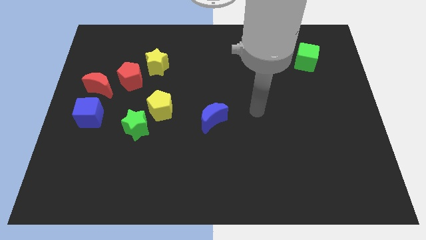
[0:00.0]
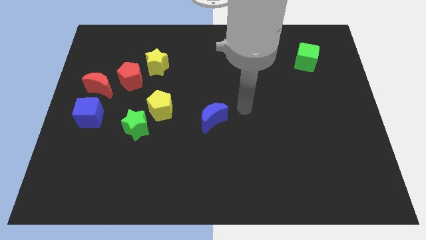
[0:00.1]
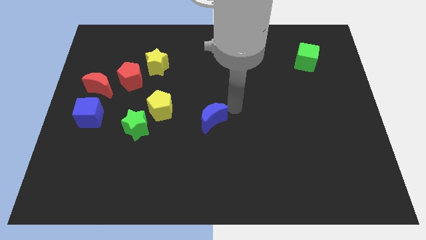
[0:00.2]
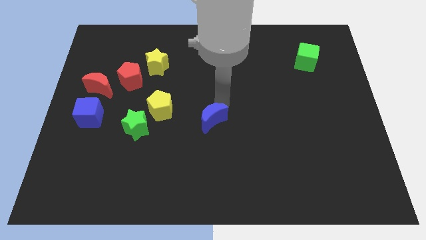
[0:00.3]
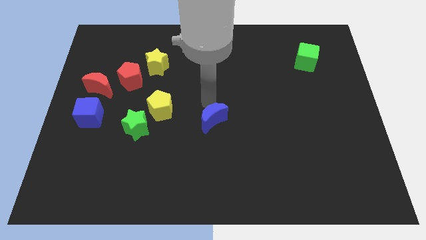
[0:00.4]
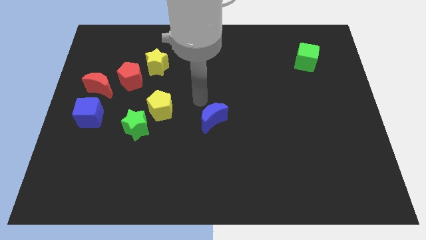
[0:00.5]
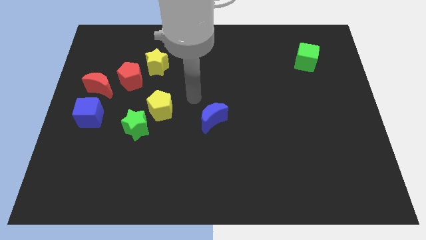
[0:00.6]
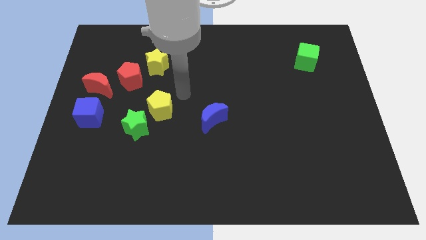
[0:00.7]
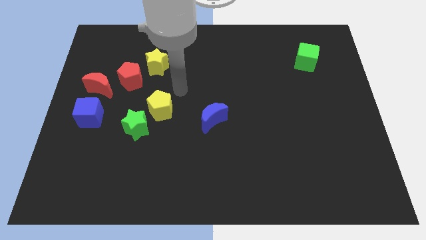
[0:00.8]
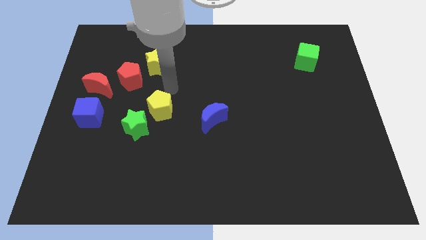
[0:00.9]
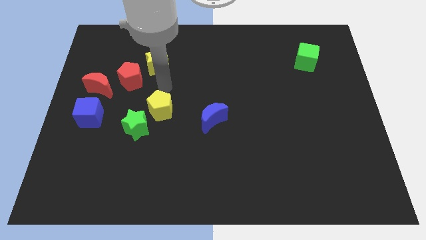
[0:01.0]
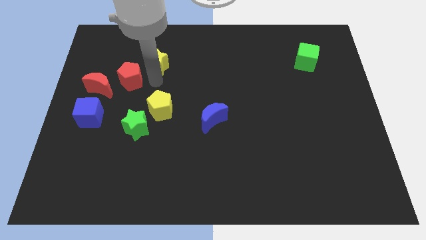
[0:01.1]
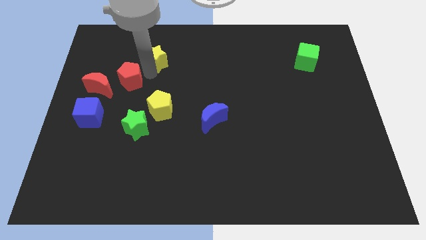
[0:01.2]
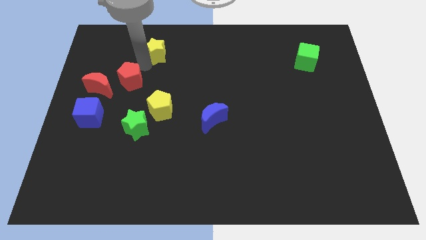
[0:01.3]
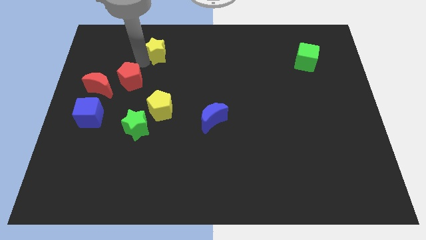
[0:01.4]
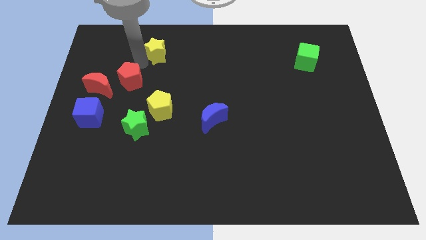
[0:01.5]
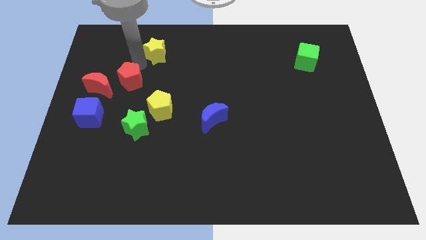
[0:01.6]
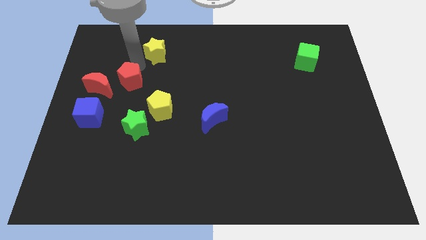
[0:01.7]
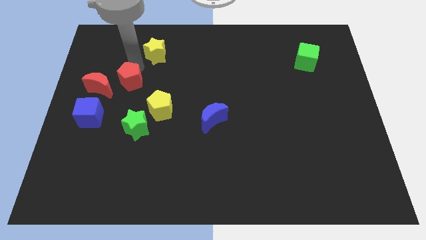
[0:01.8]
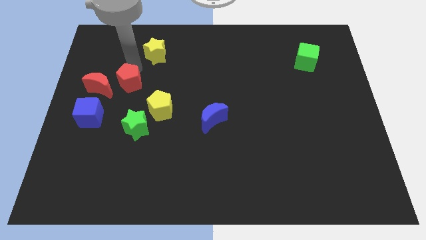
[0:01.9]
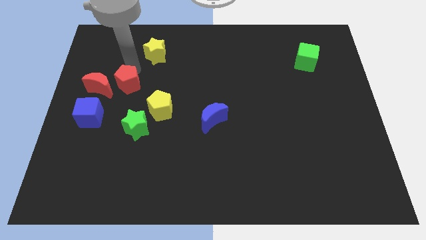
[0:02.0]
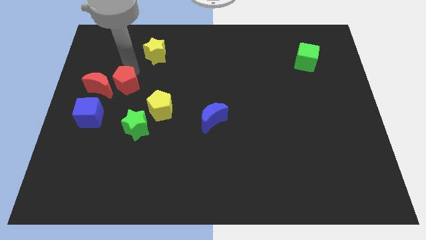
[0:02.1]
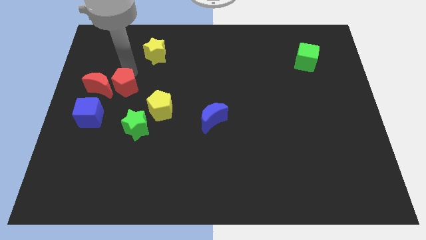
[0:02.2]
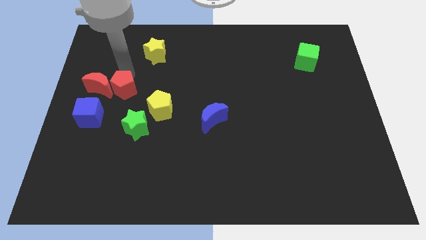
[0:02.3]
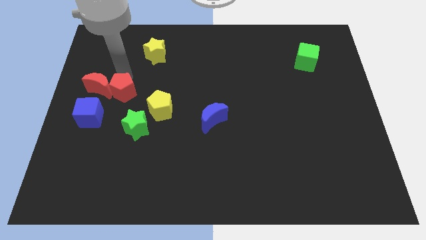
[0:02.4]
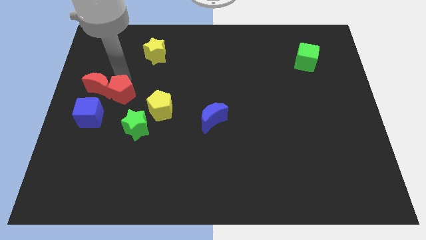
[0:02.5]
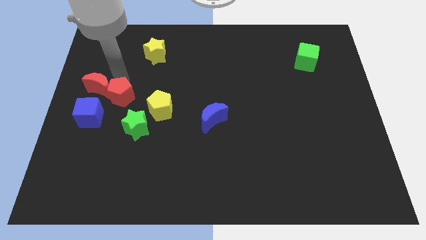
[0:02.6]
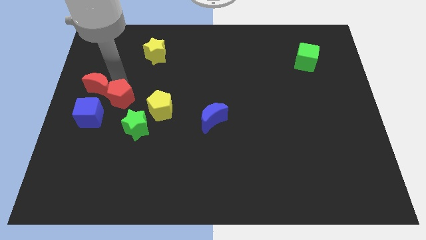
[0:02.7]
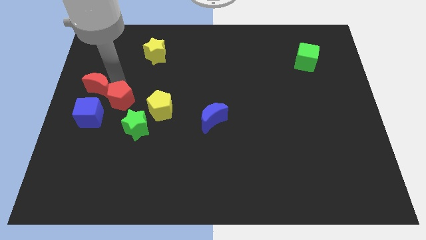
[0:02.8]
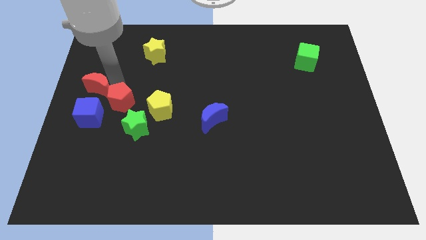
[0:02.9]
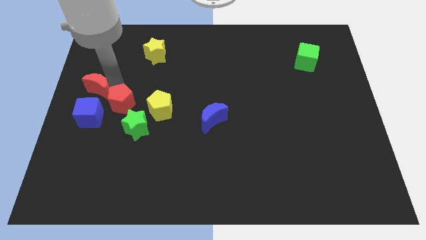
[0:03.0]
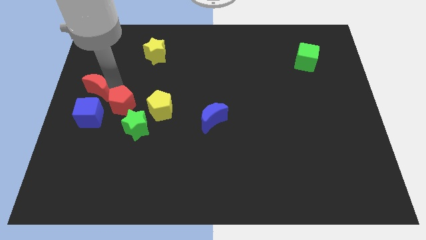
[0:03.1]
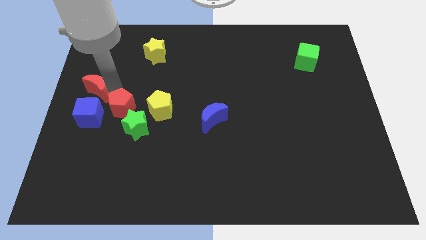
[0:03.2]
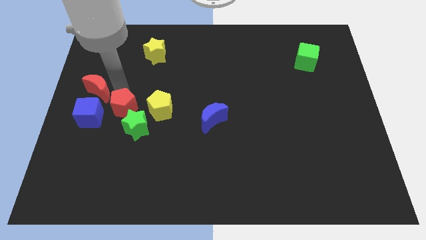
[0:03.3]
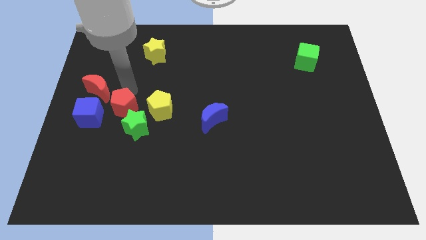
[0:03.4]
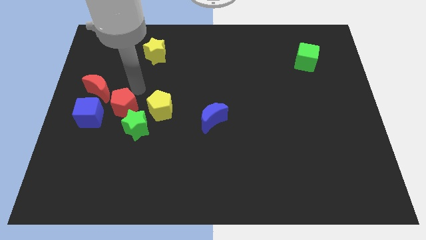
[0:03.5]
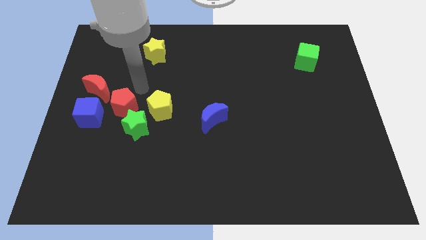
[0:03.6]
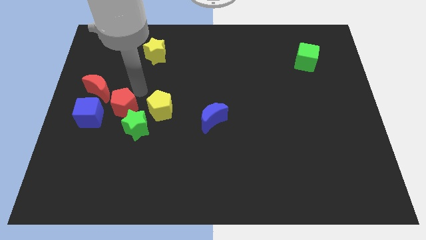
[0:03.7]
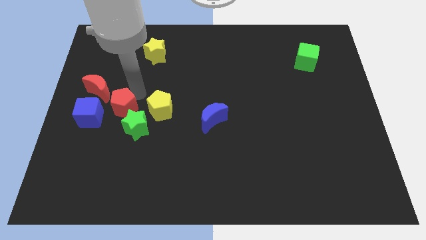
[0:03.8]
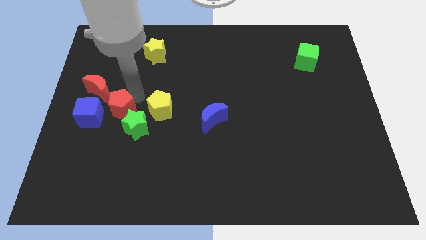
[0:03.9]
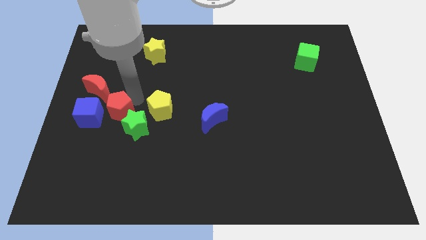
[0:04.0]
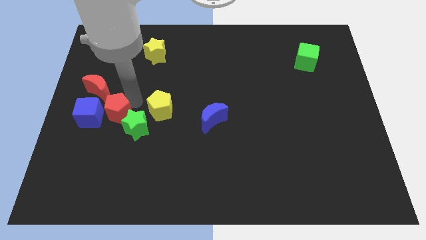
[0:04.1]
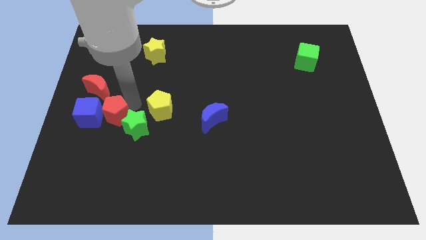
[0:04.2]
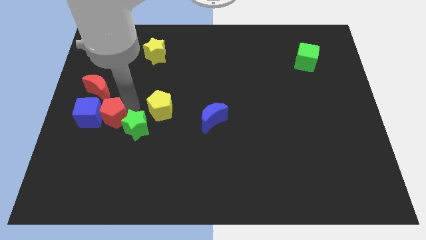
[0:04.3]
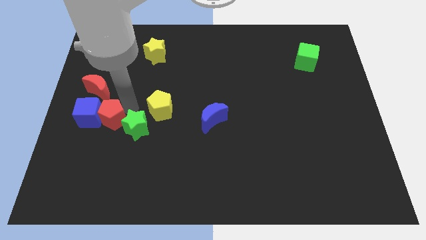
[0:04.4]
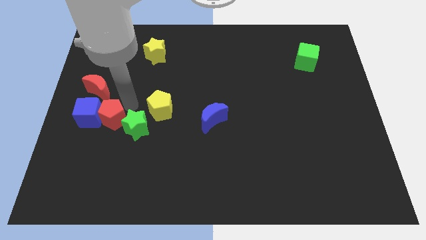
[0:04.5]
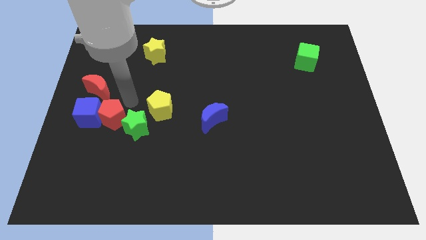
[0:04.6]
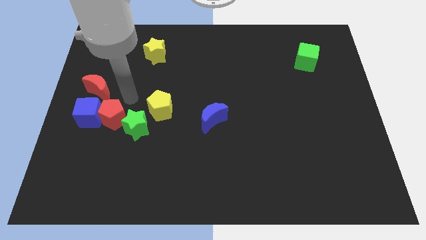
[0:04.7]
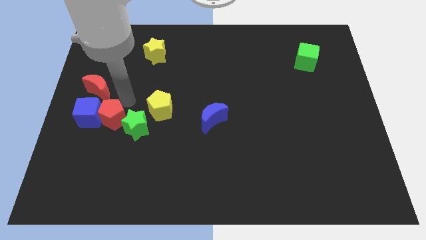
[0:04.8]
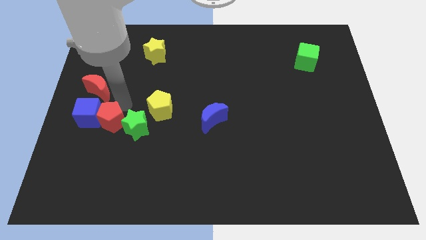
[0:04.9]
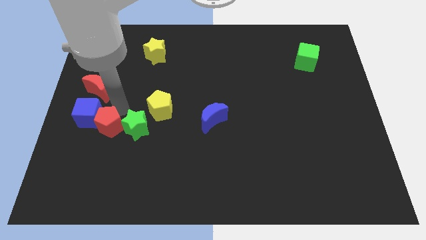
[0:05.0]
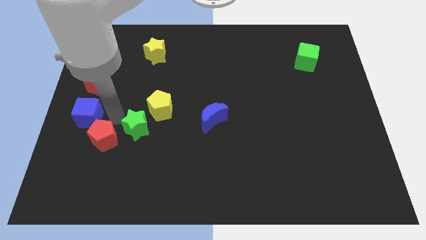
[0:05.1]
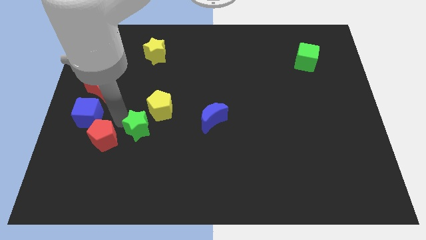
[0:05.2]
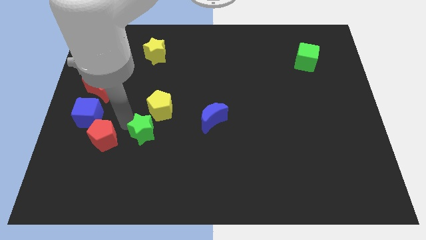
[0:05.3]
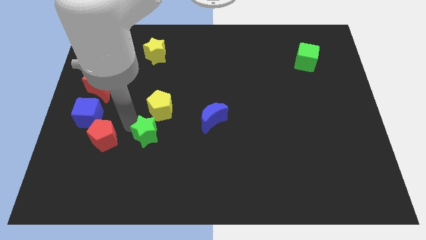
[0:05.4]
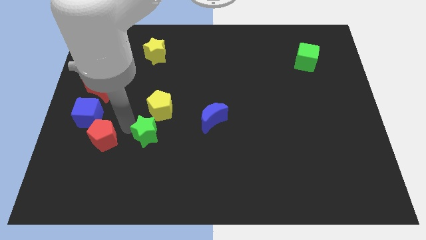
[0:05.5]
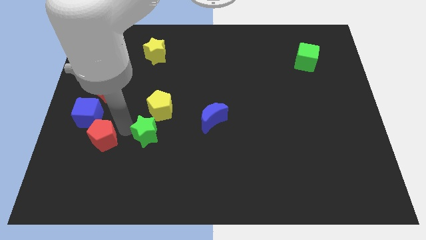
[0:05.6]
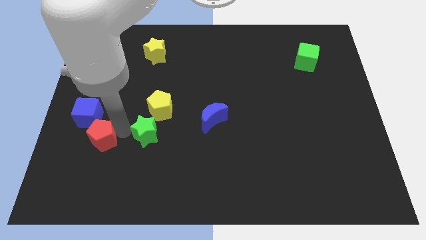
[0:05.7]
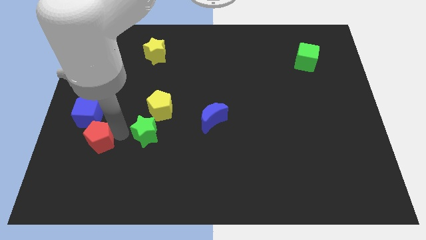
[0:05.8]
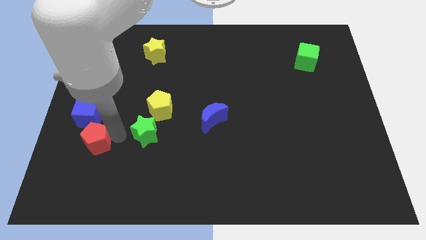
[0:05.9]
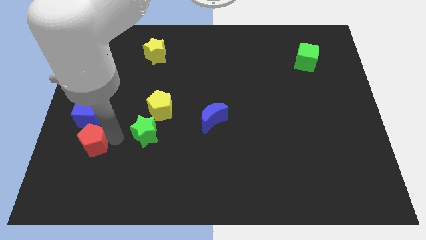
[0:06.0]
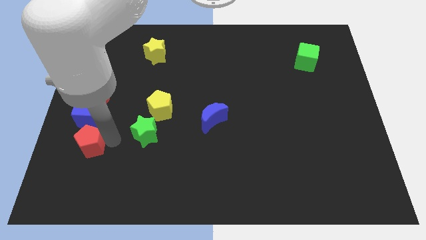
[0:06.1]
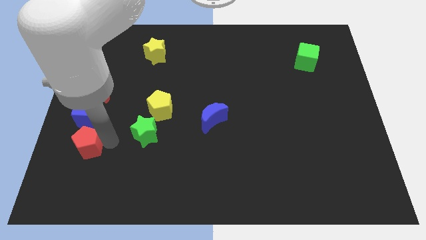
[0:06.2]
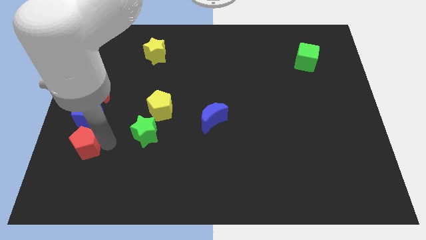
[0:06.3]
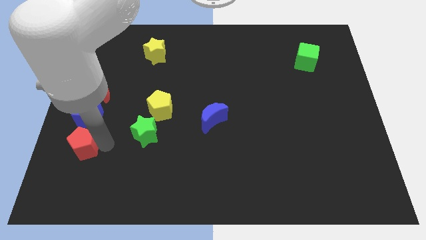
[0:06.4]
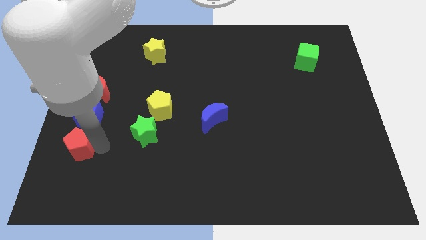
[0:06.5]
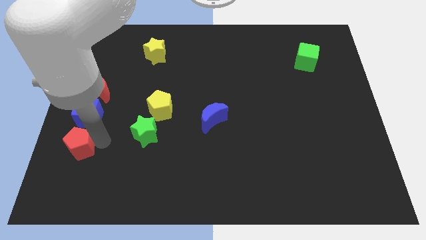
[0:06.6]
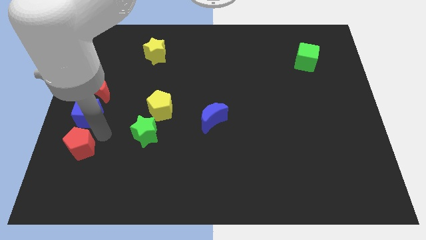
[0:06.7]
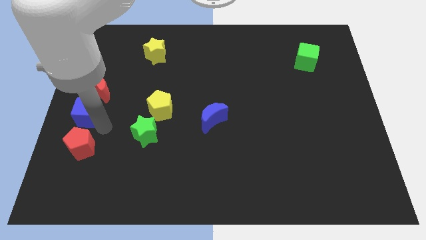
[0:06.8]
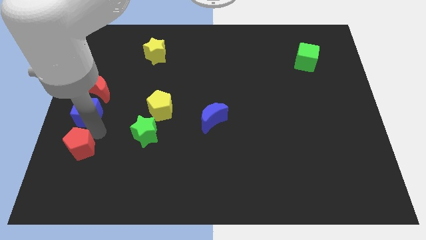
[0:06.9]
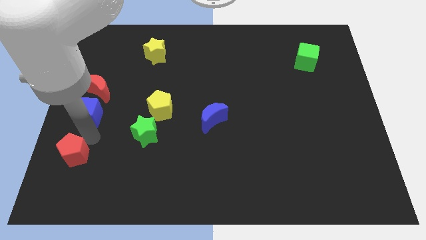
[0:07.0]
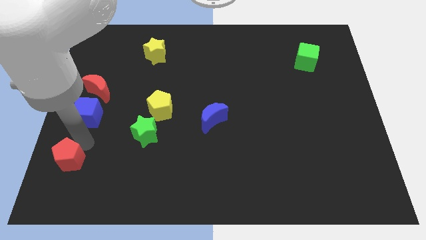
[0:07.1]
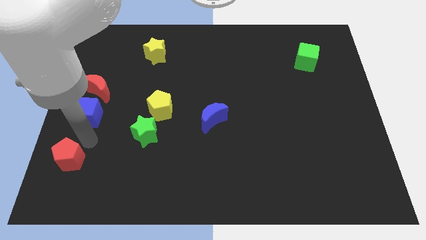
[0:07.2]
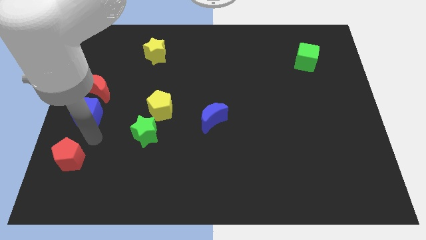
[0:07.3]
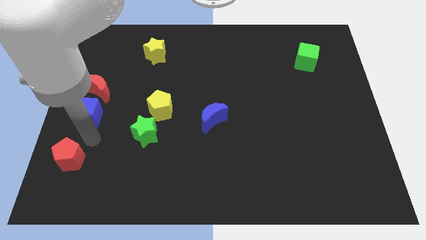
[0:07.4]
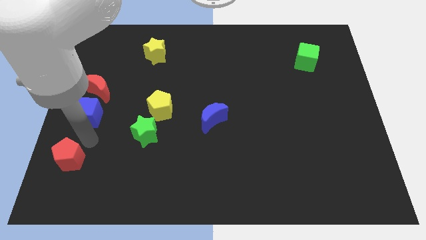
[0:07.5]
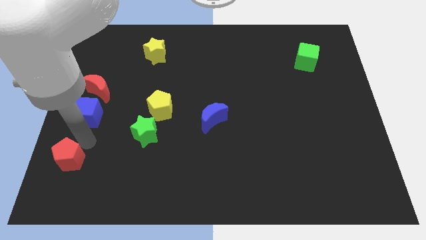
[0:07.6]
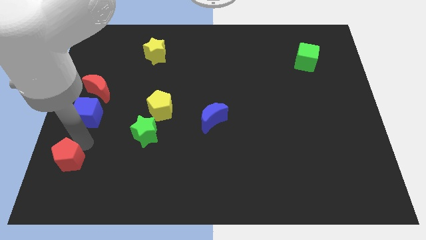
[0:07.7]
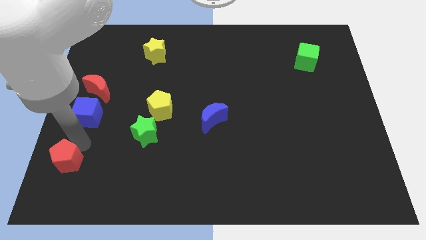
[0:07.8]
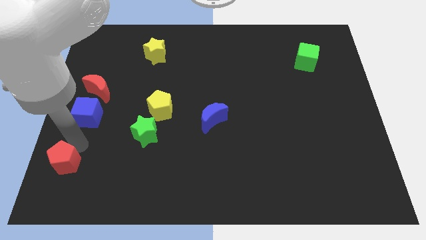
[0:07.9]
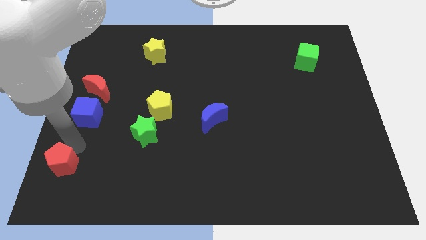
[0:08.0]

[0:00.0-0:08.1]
slide the red pentagon to the bottom left
